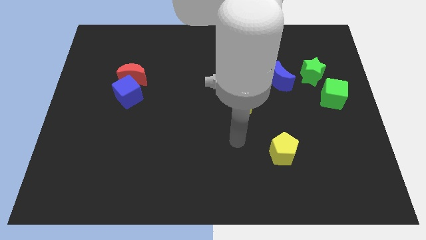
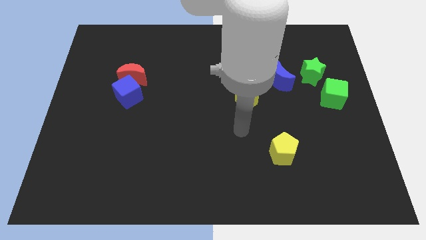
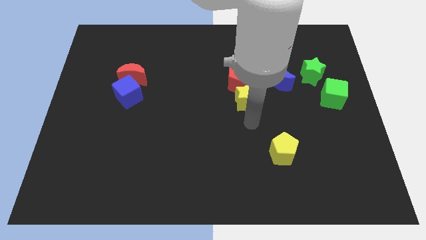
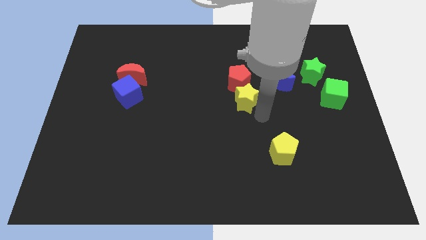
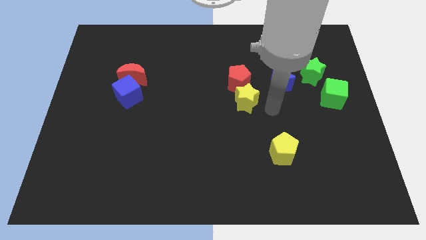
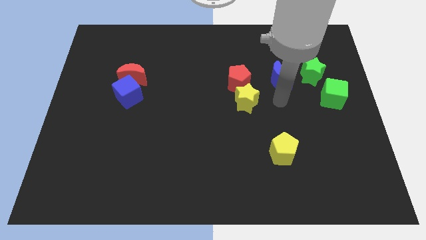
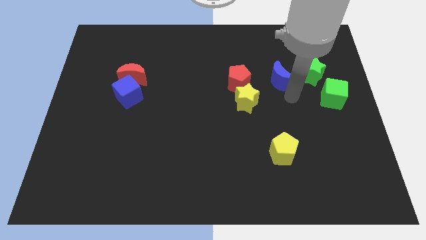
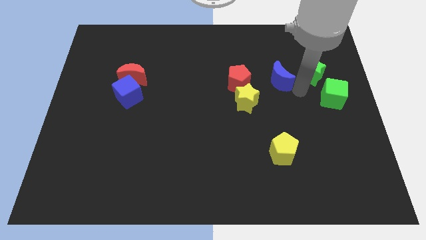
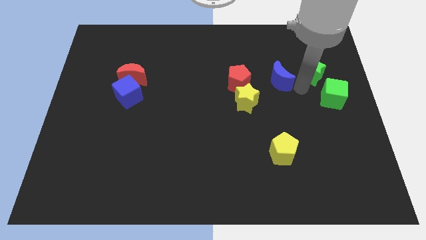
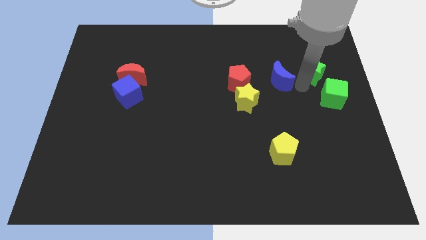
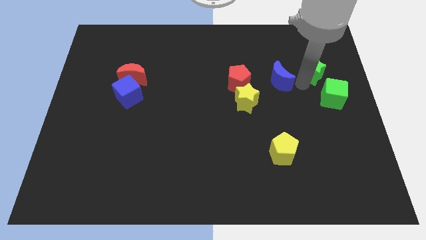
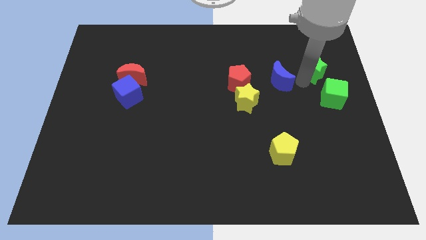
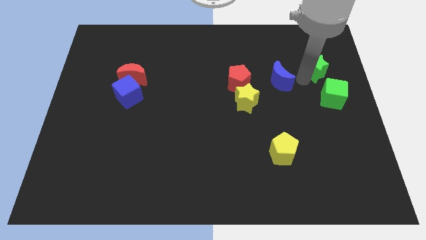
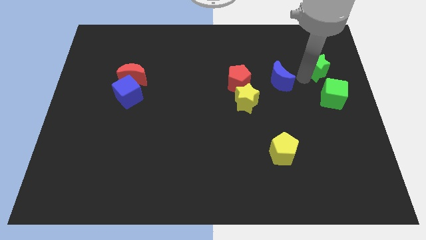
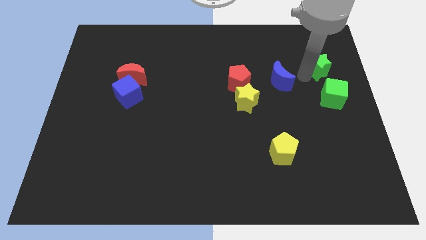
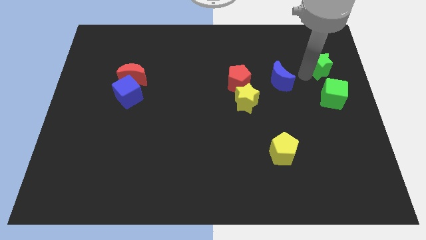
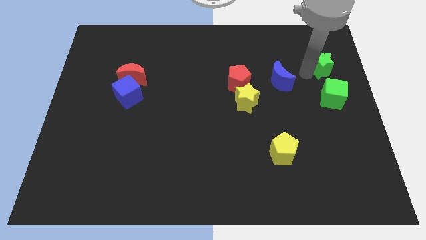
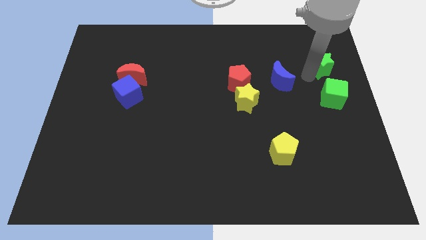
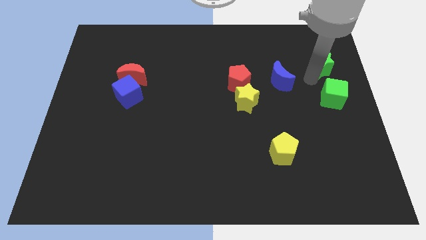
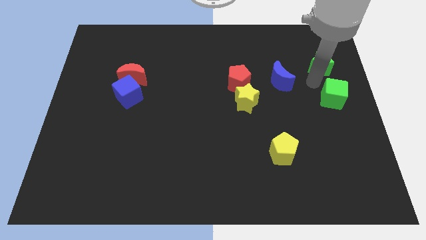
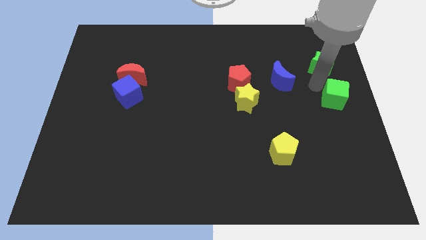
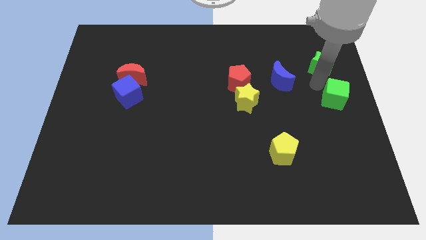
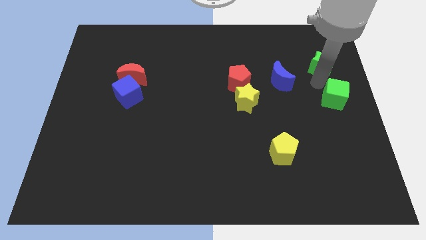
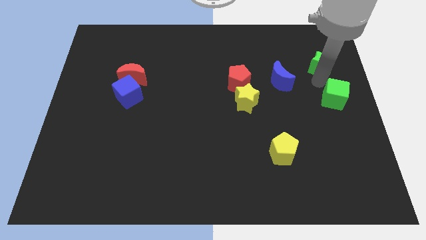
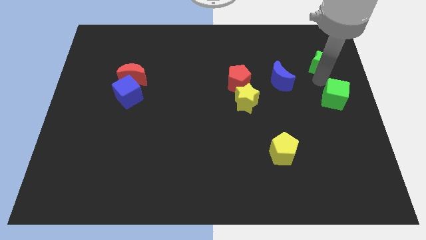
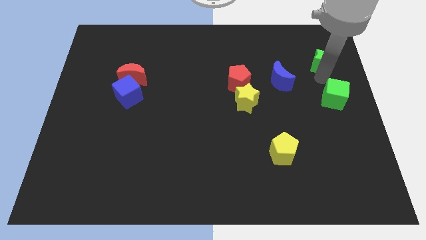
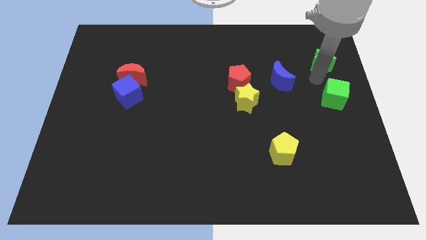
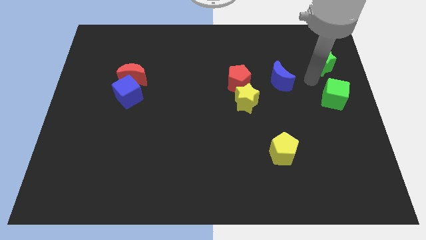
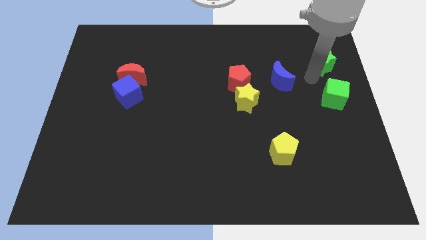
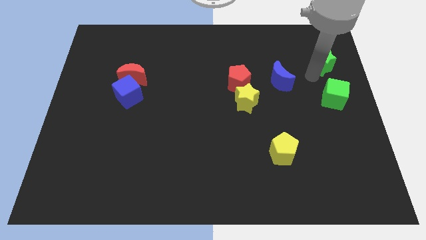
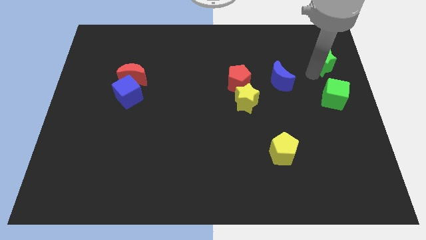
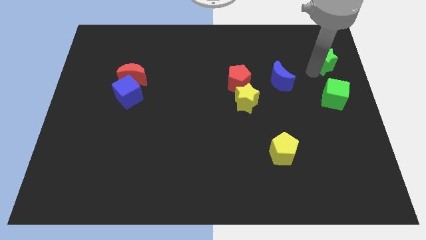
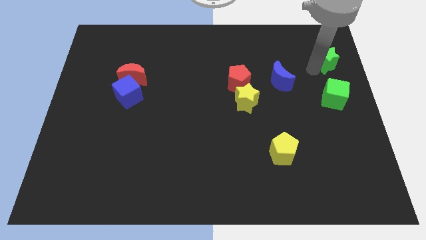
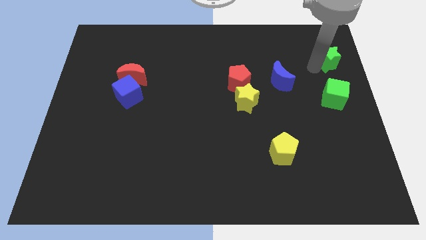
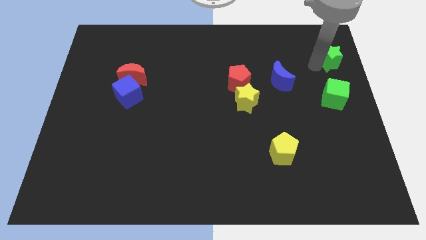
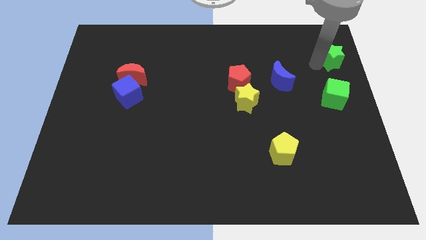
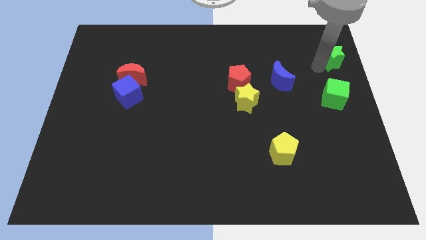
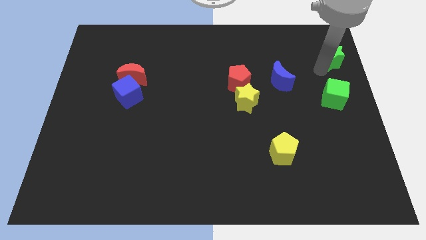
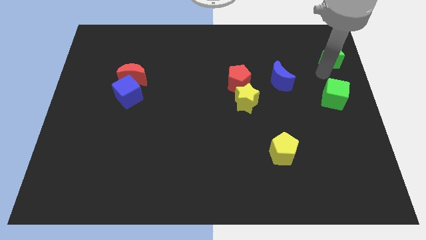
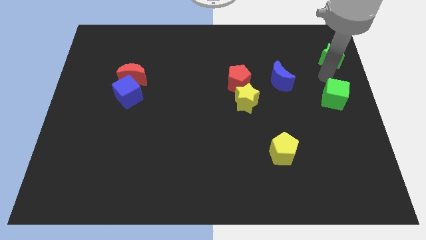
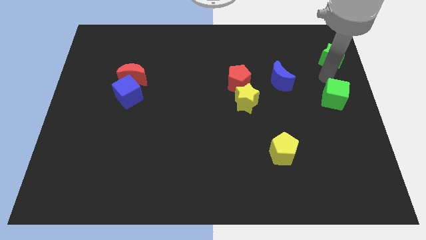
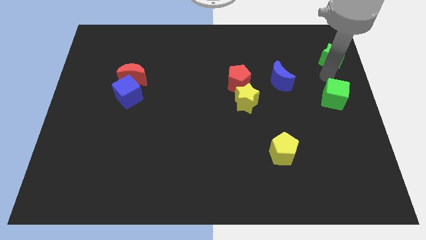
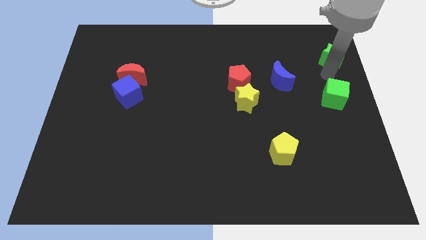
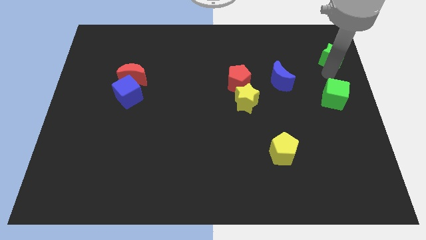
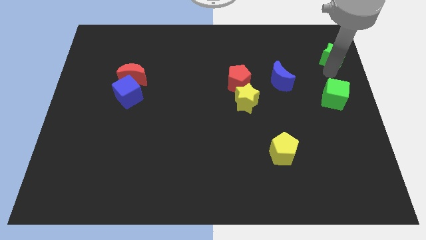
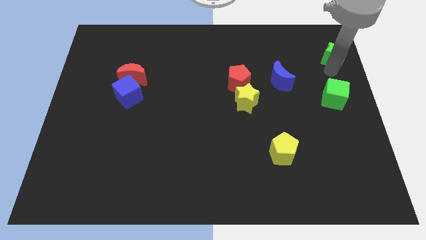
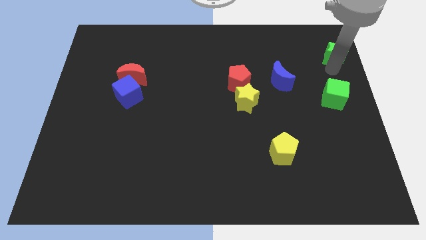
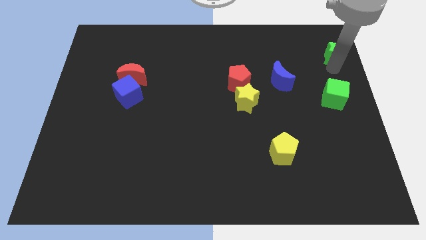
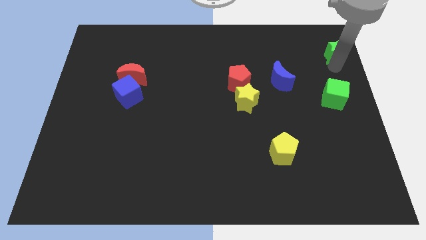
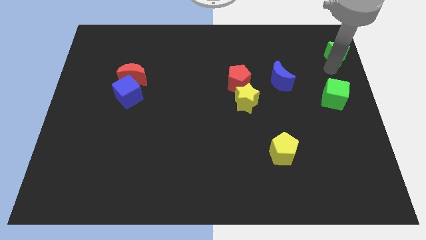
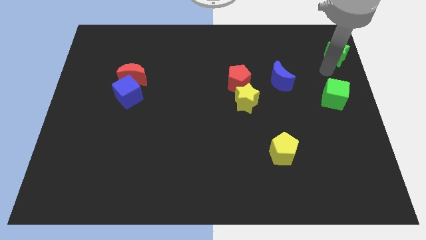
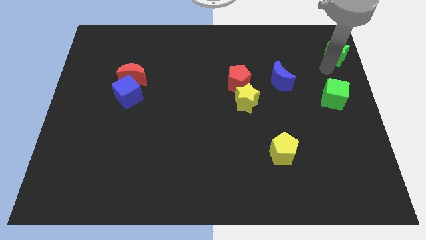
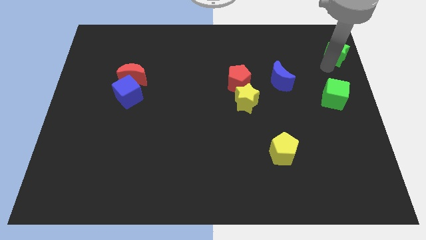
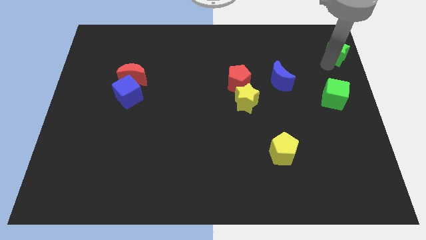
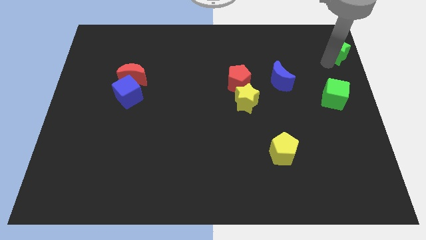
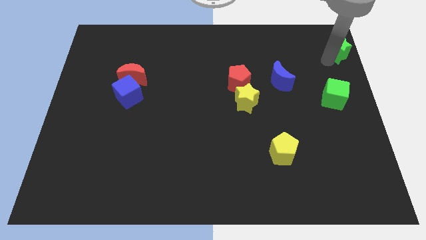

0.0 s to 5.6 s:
push the green star to the upper right corner

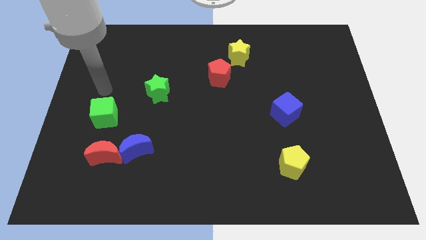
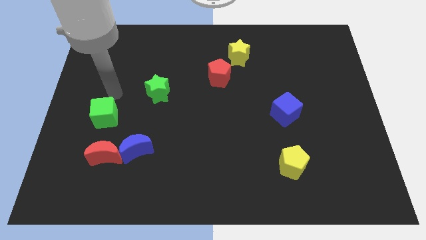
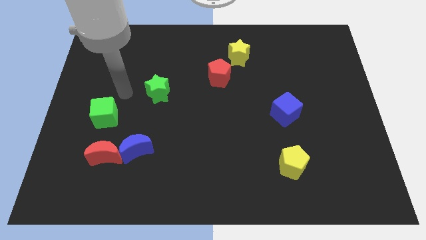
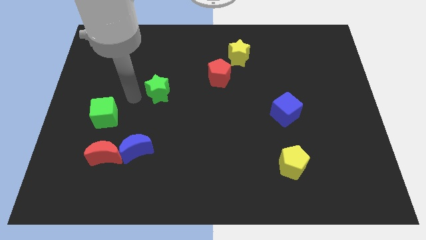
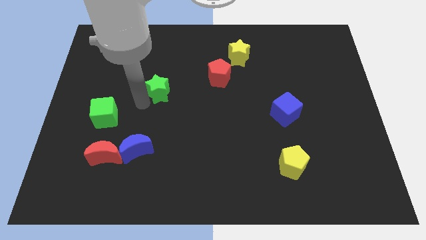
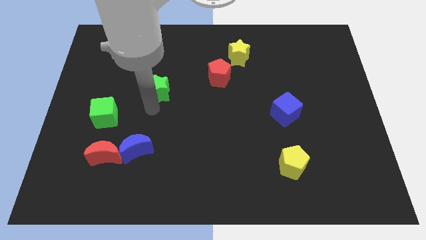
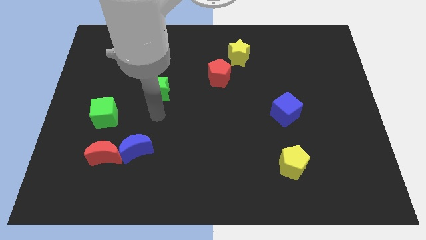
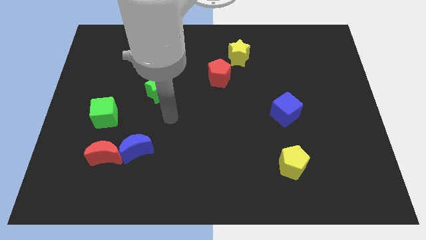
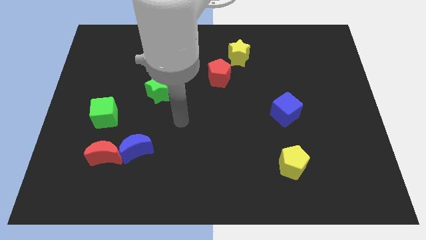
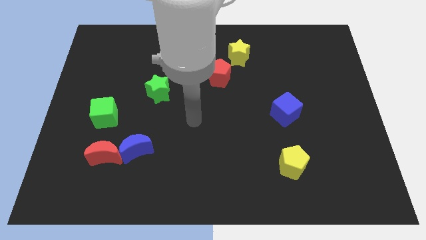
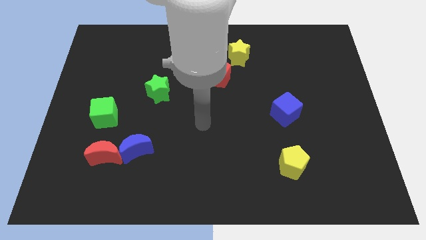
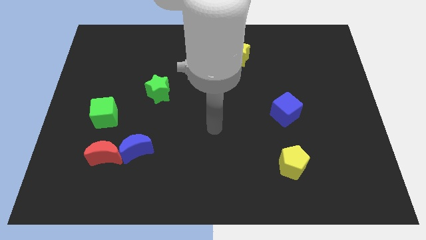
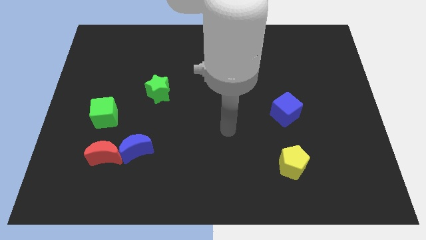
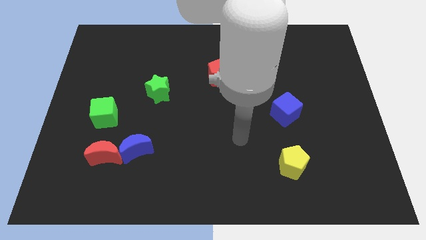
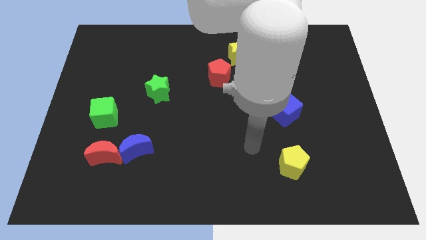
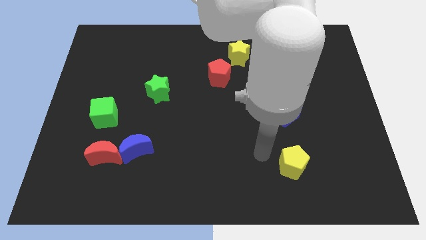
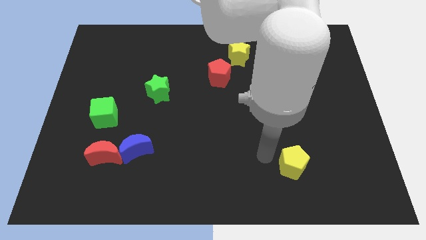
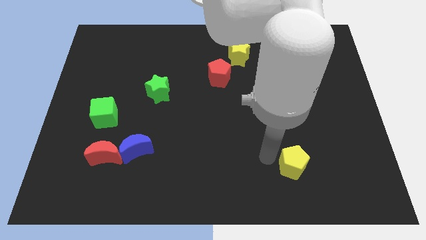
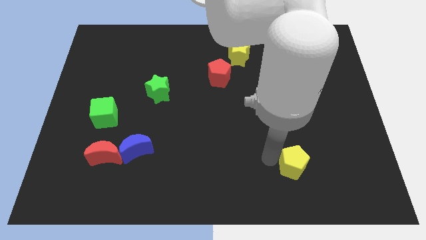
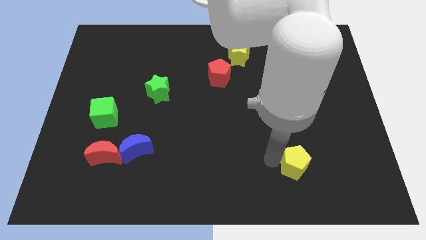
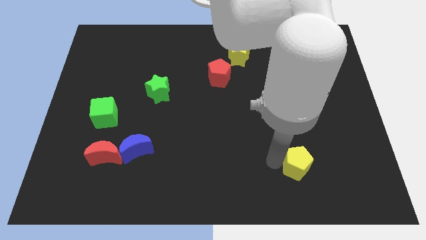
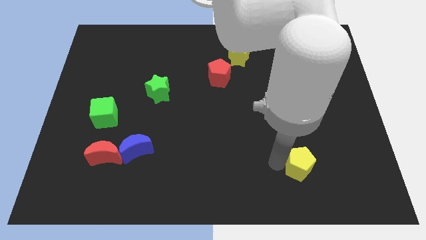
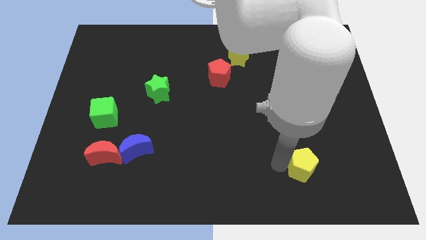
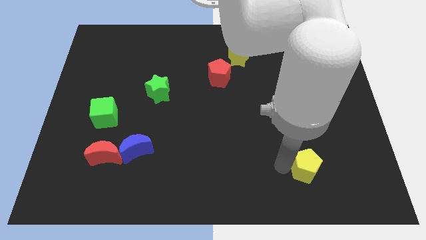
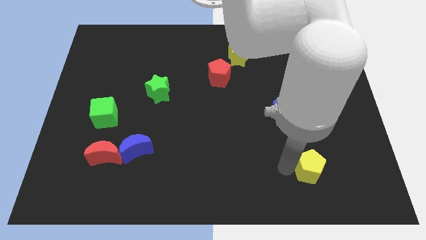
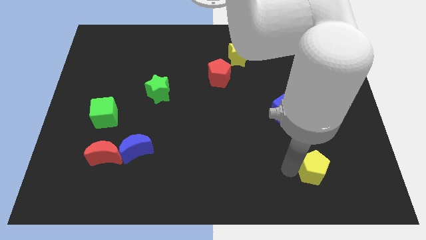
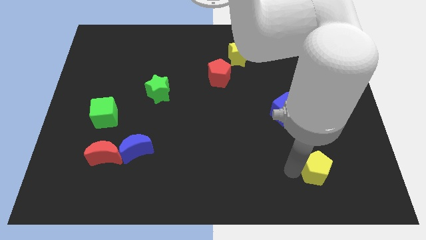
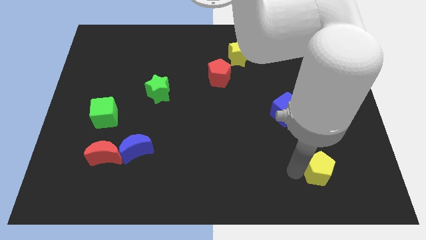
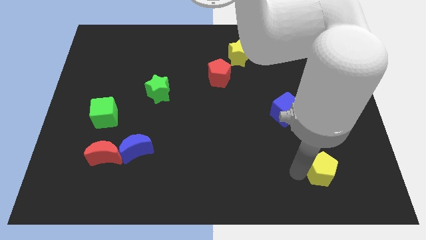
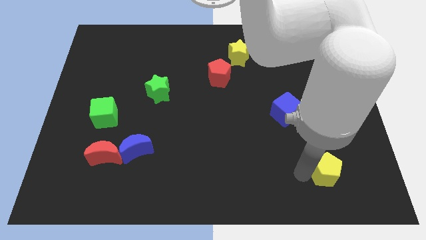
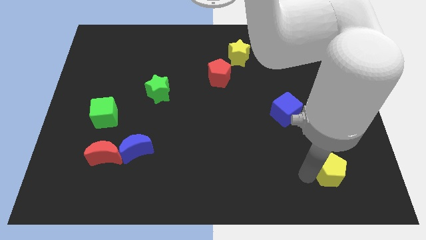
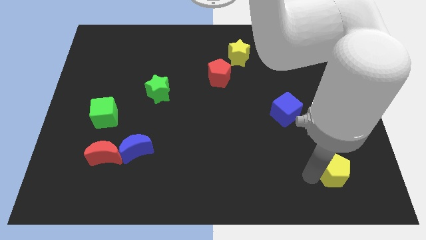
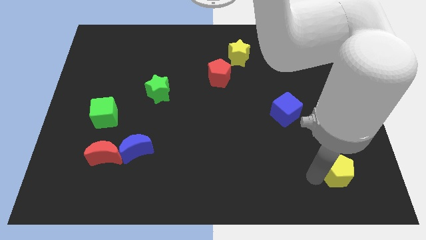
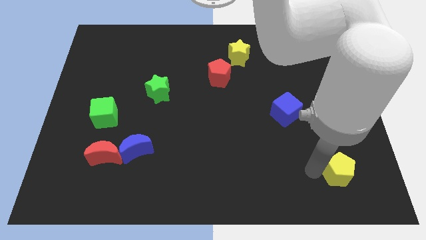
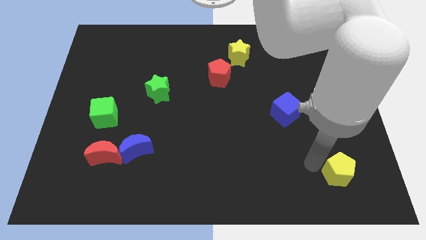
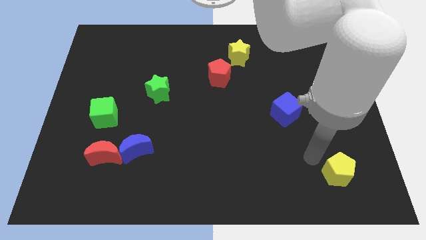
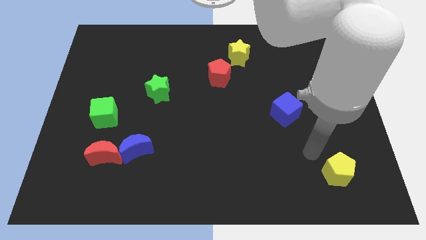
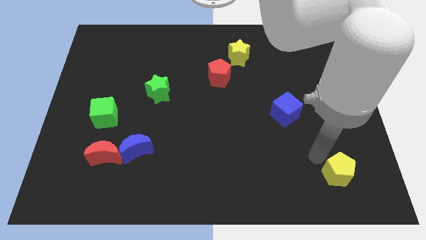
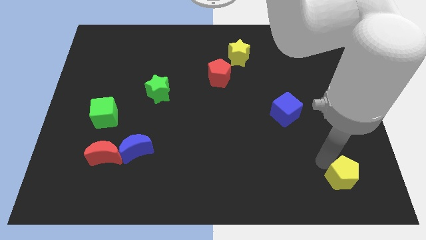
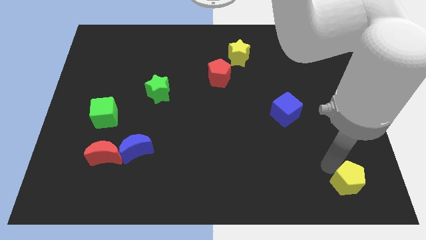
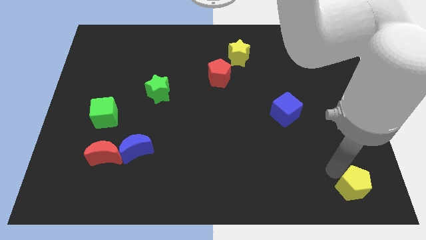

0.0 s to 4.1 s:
slide the yellow pentagon to the bottom right of the board
